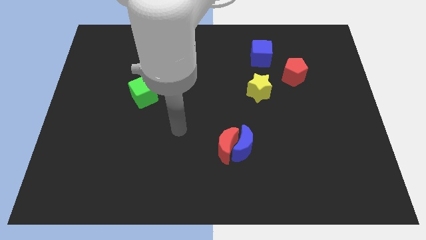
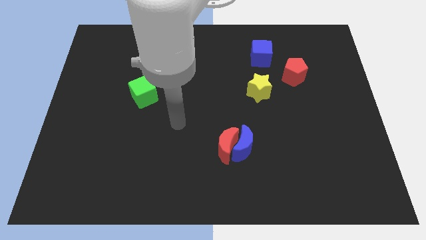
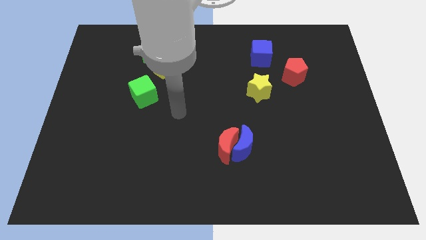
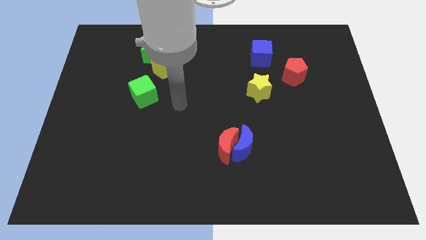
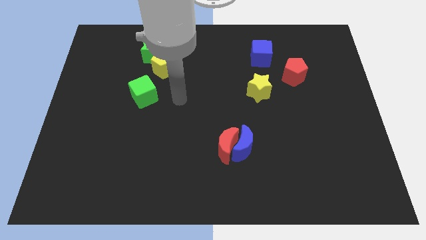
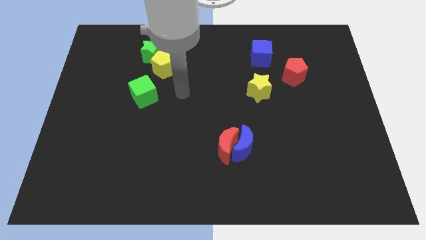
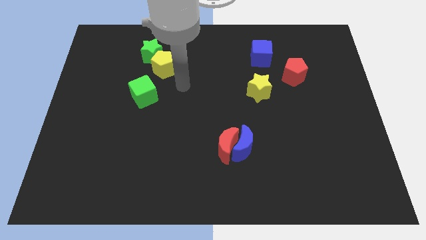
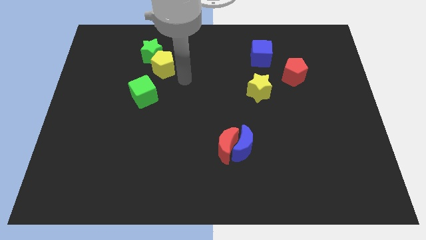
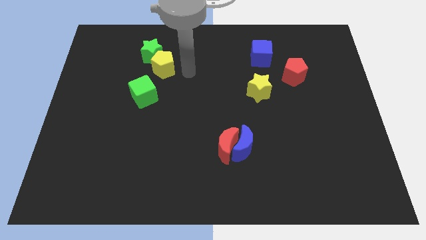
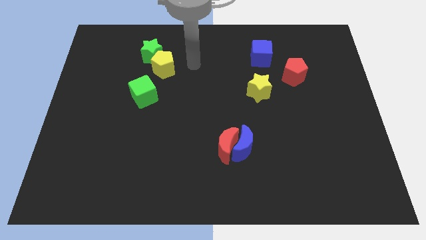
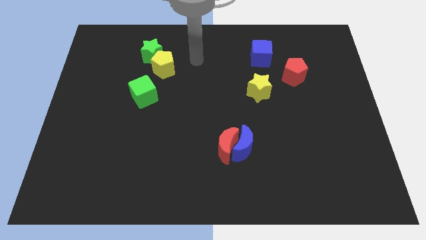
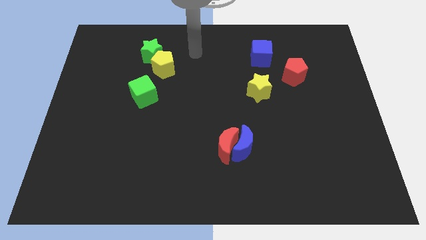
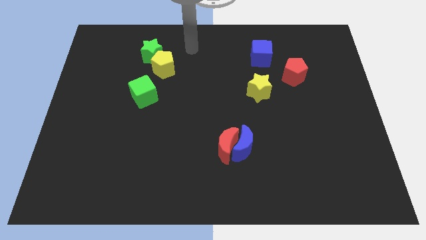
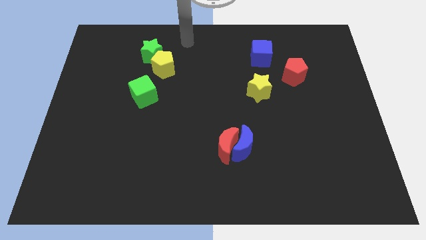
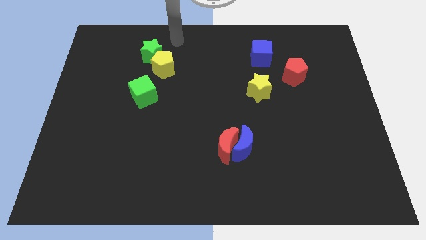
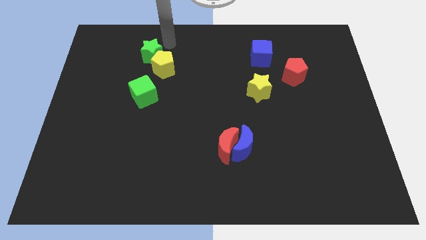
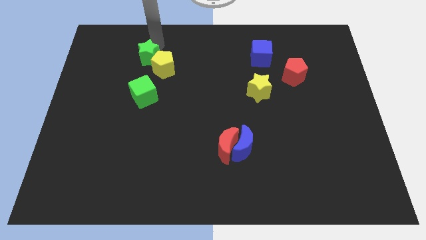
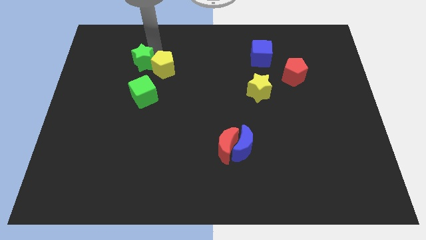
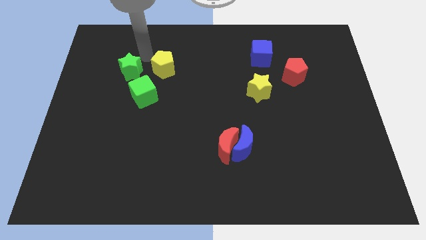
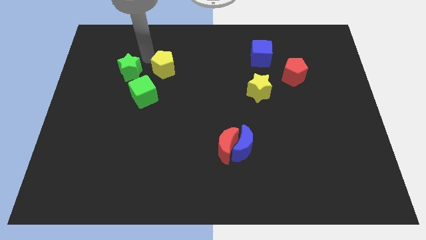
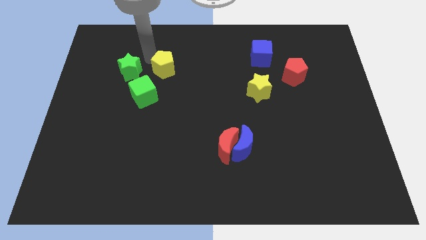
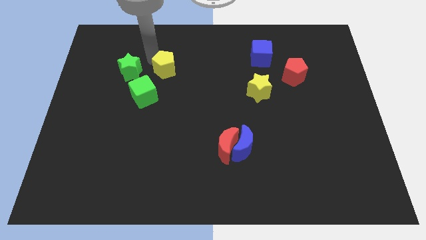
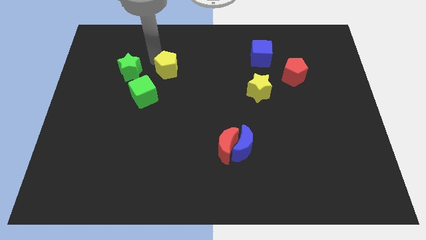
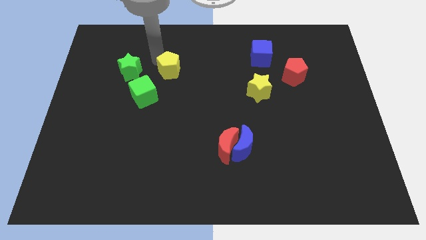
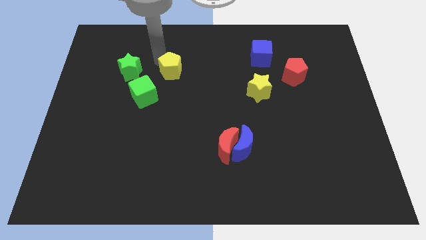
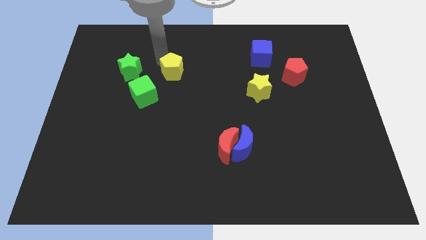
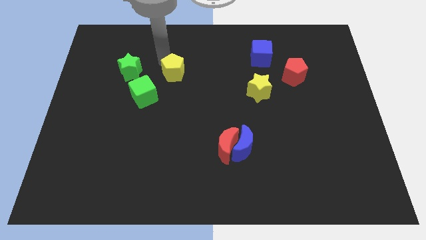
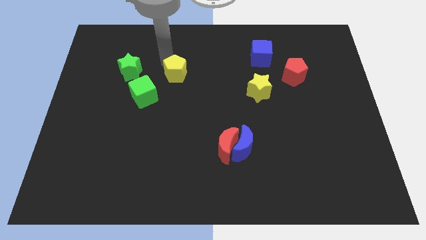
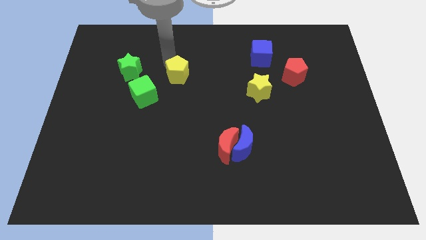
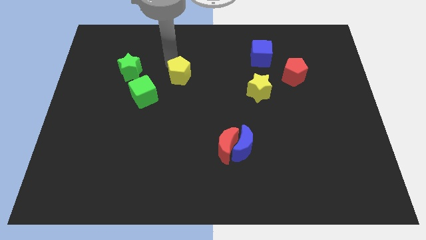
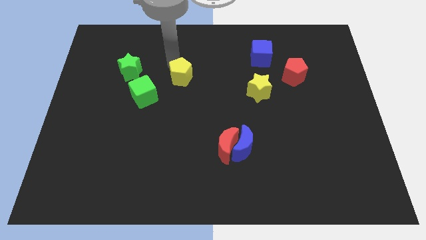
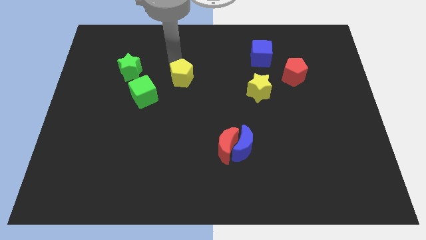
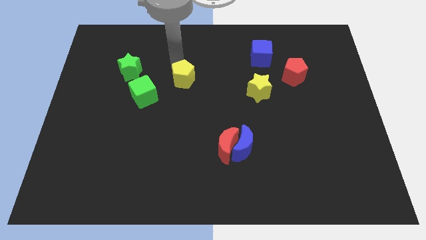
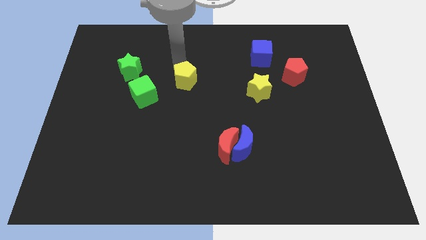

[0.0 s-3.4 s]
slide the yellow pentagon down and then to the right somewhat

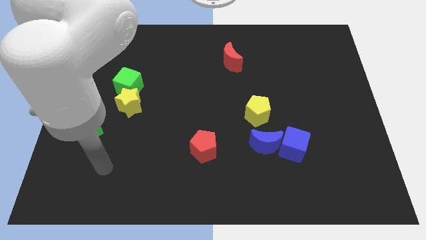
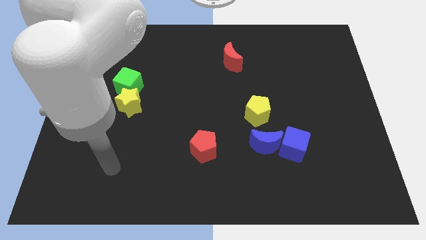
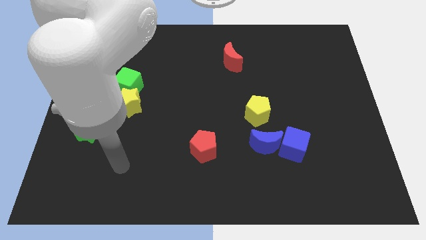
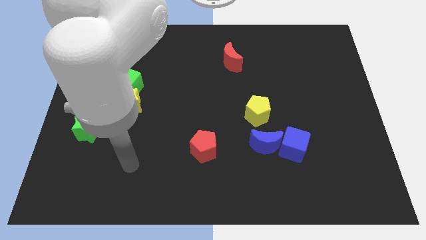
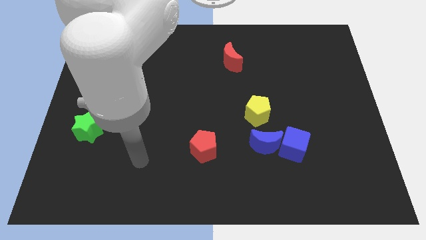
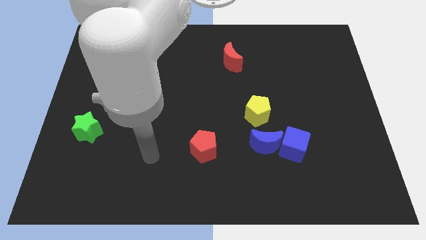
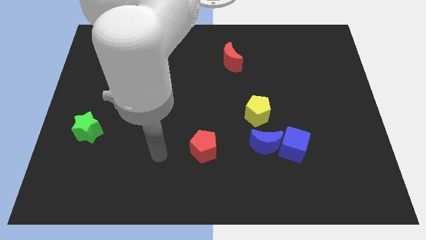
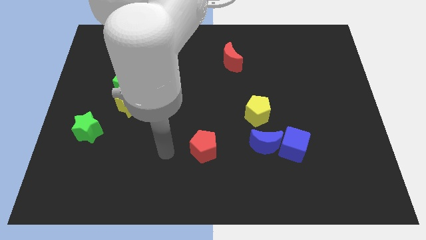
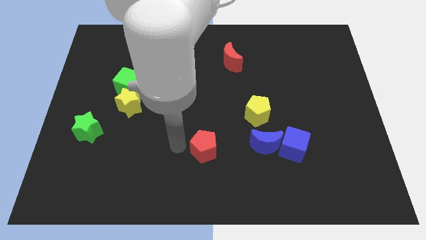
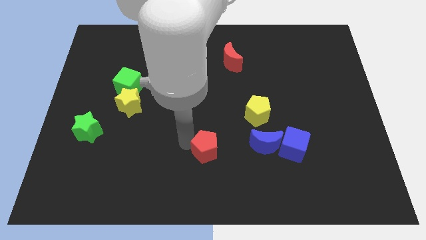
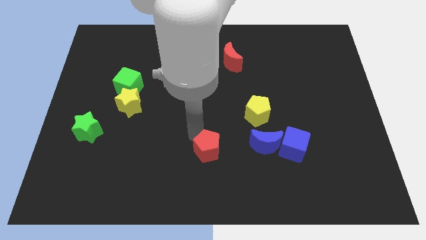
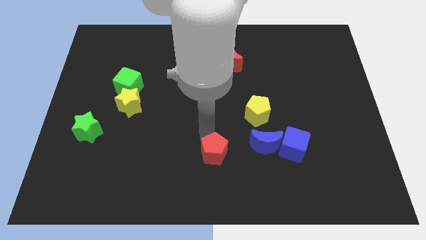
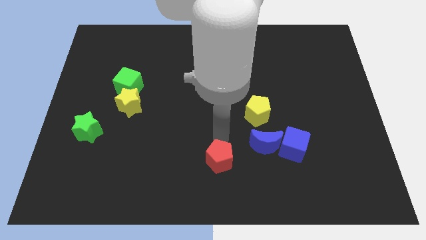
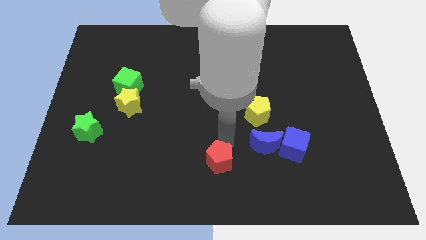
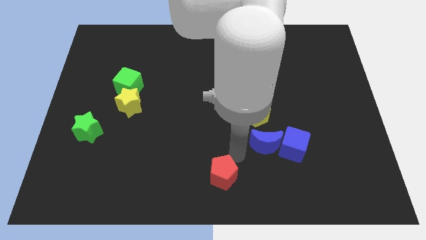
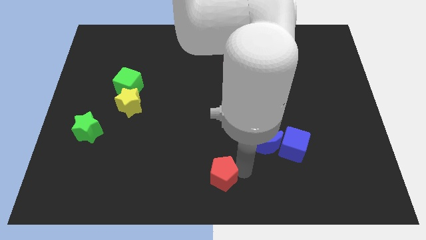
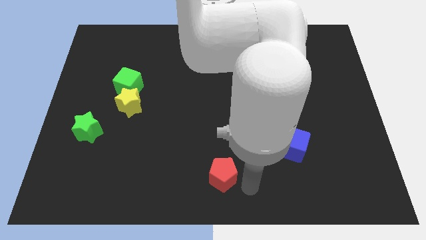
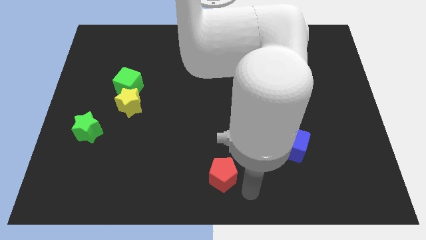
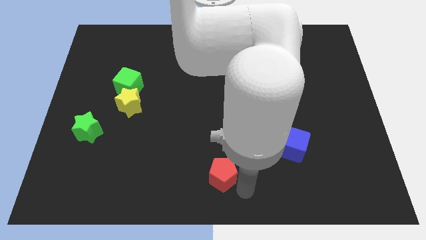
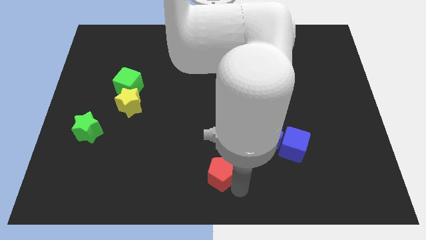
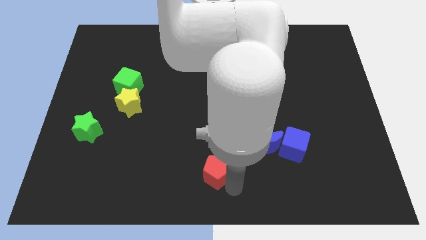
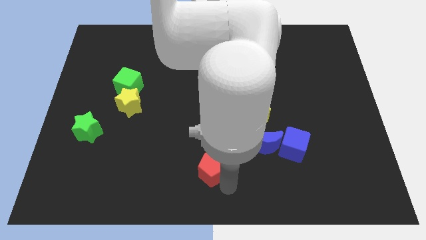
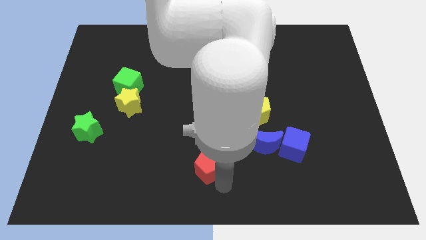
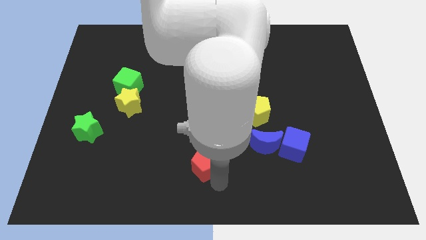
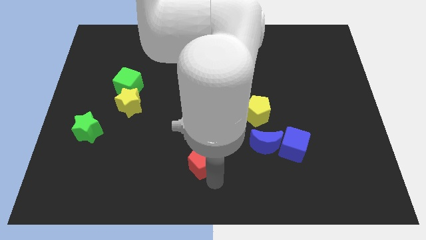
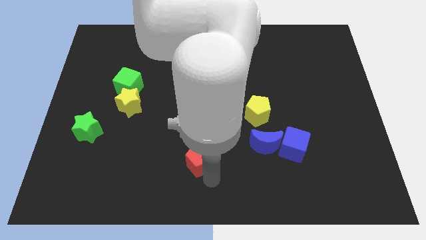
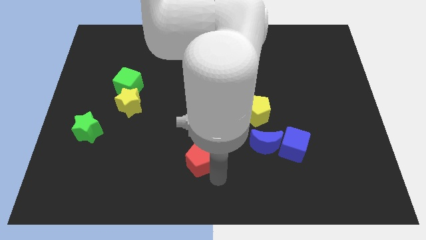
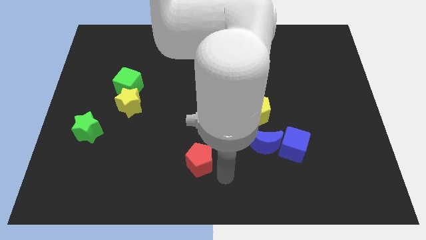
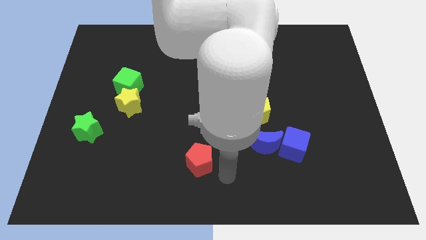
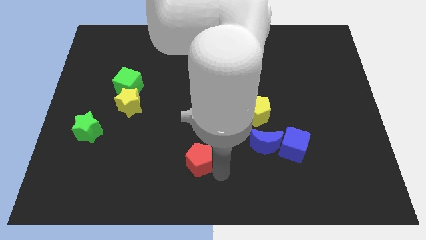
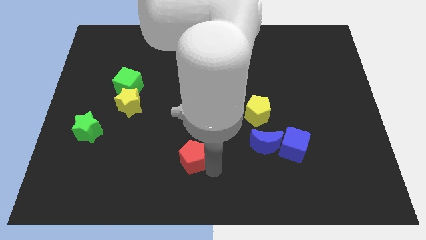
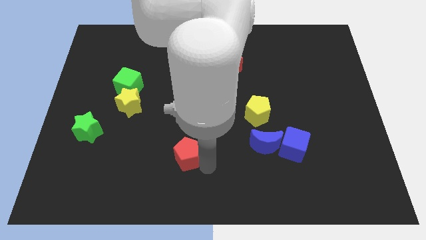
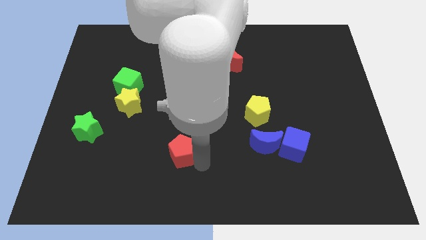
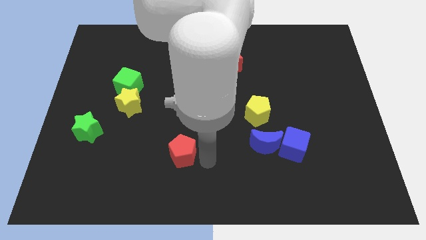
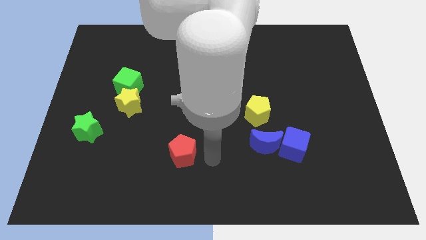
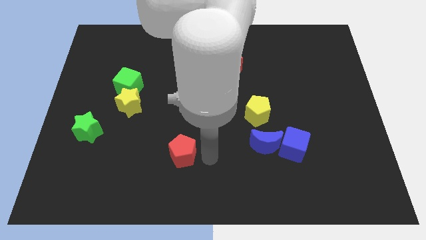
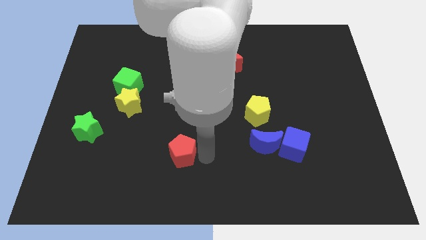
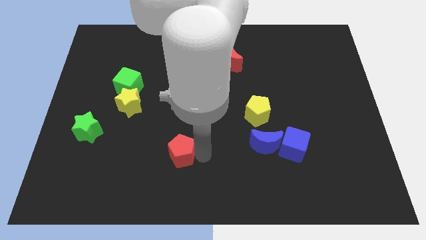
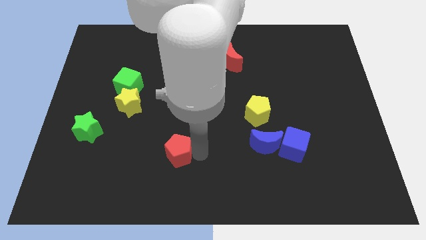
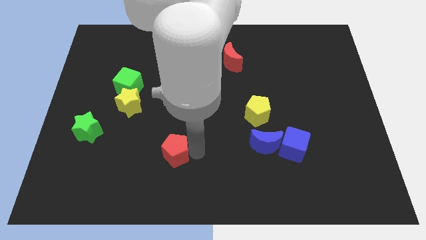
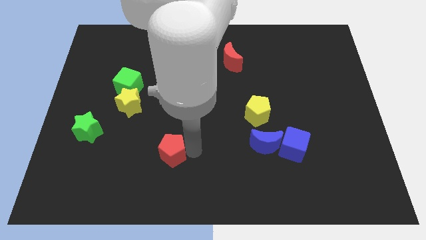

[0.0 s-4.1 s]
push the red pentagon left a little bit

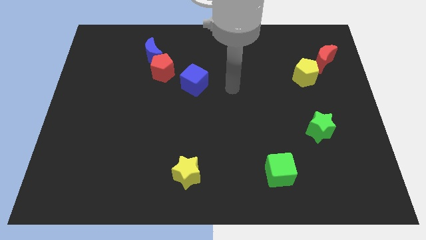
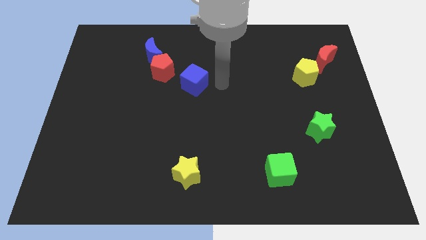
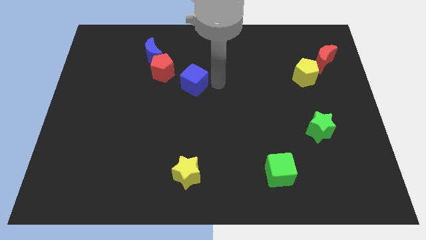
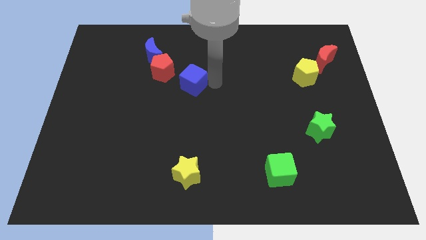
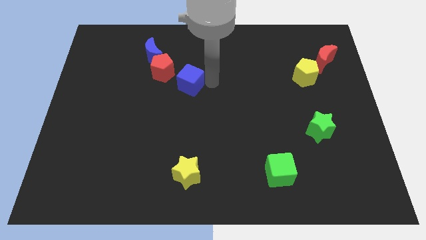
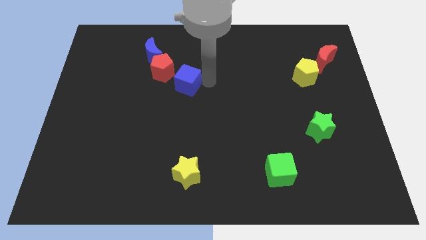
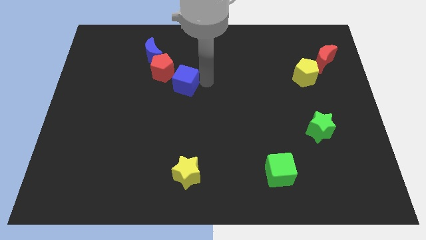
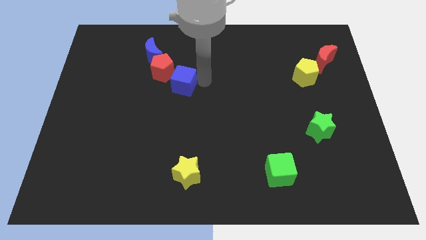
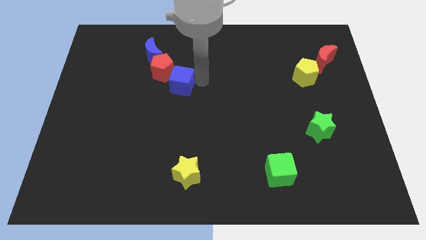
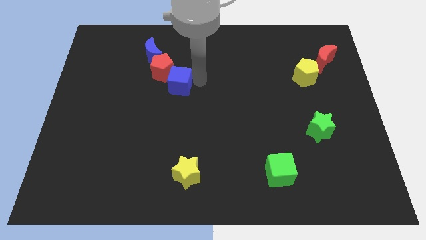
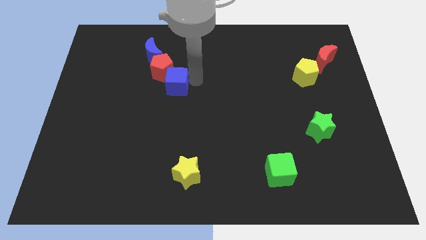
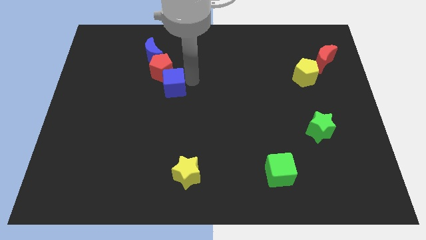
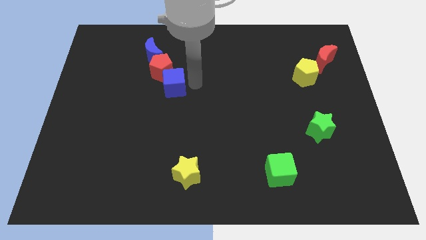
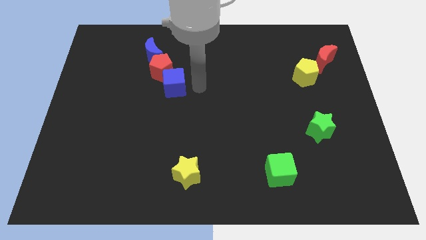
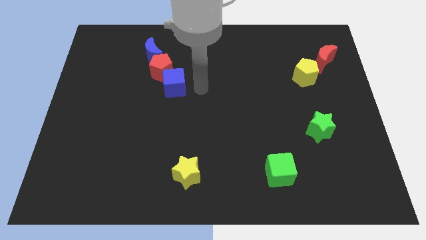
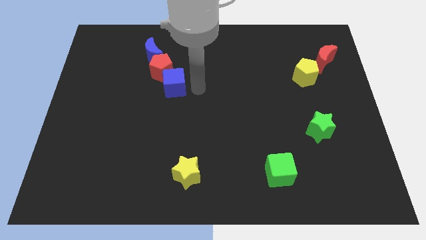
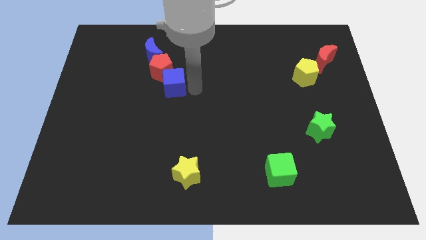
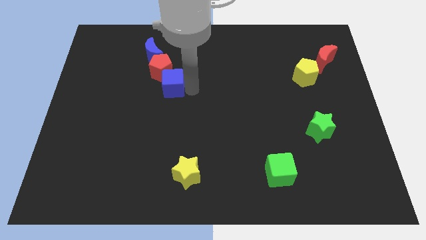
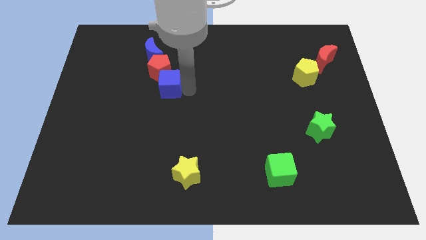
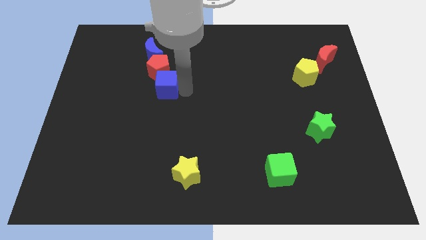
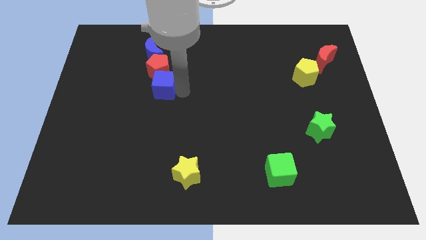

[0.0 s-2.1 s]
push the blue cube to the left somewhat
